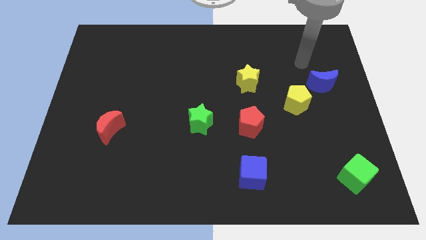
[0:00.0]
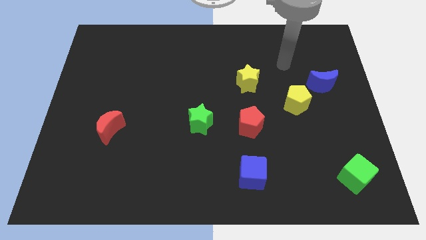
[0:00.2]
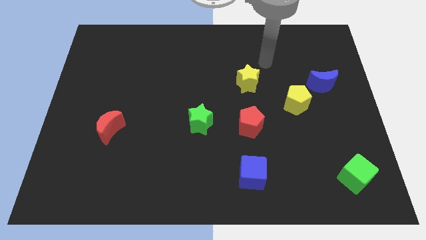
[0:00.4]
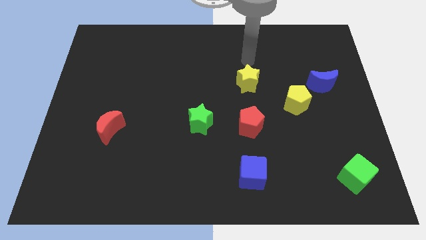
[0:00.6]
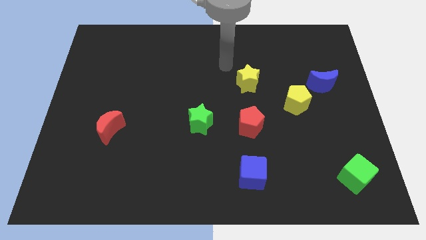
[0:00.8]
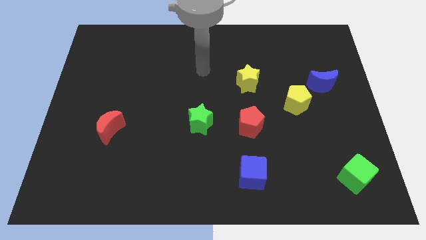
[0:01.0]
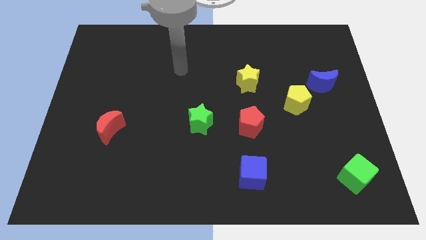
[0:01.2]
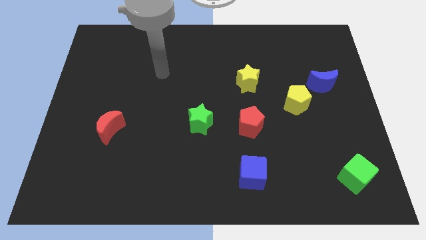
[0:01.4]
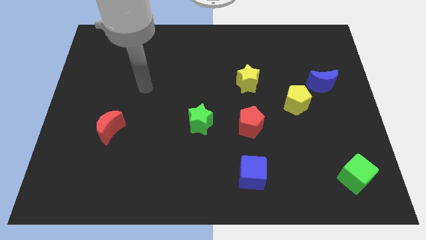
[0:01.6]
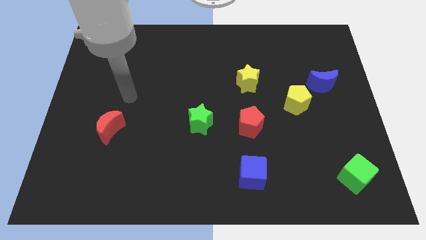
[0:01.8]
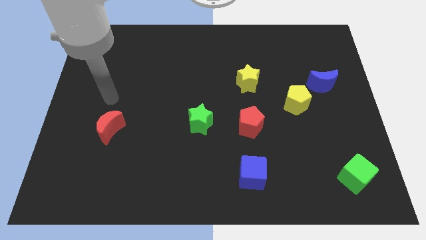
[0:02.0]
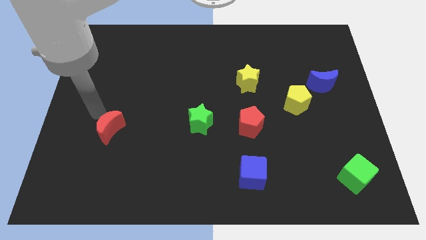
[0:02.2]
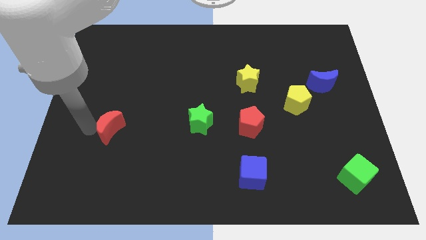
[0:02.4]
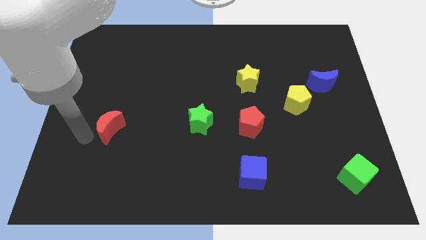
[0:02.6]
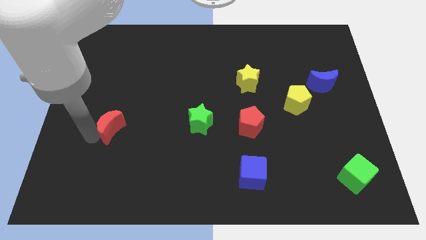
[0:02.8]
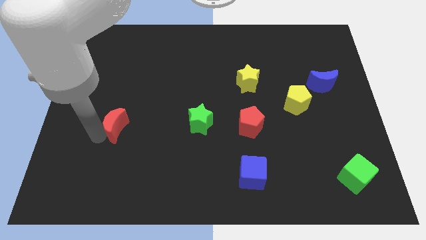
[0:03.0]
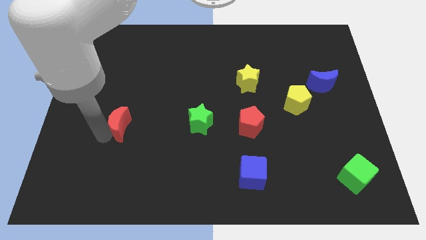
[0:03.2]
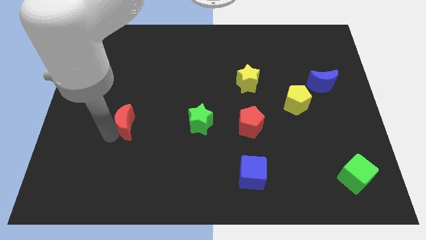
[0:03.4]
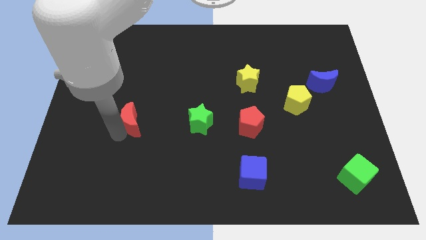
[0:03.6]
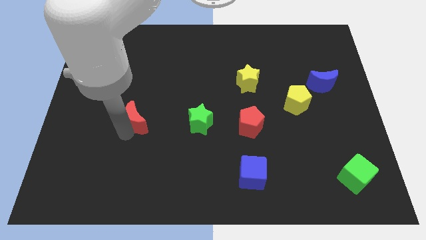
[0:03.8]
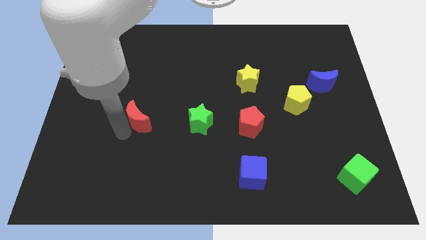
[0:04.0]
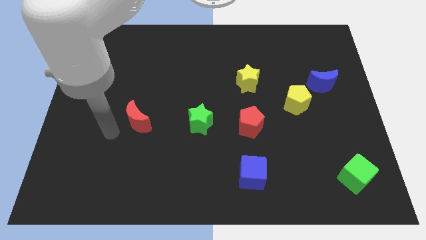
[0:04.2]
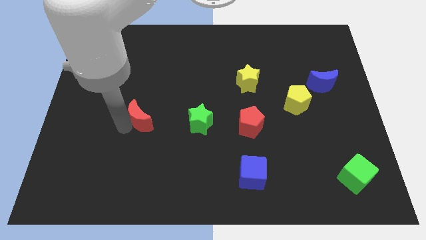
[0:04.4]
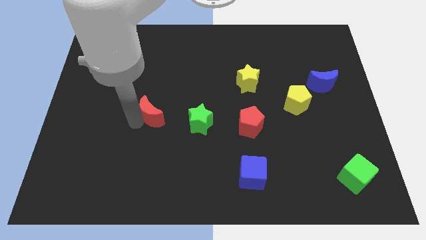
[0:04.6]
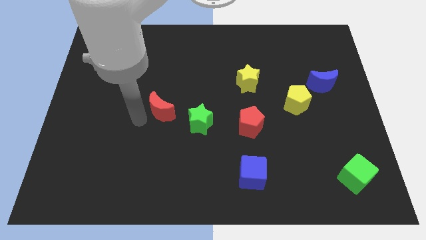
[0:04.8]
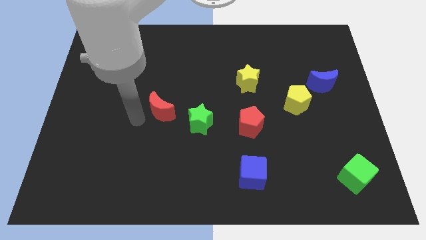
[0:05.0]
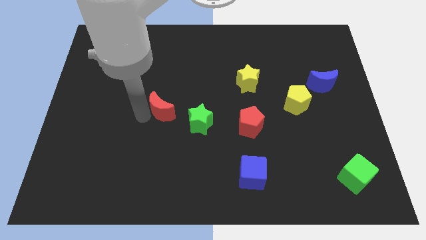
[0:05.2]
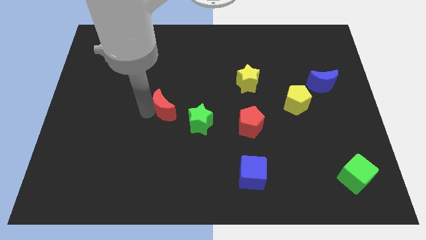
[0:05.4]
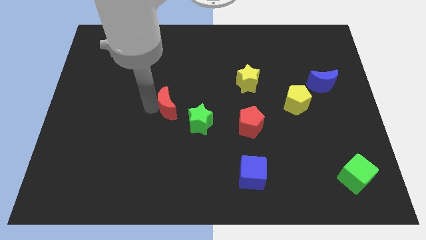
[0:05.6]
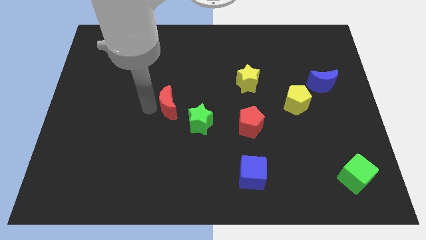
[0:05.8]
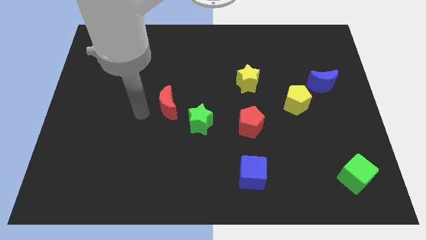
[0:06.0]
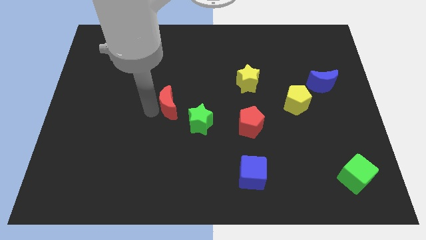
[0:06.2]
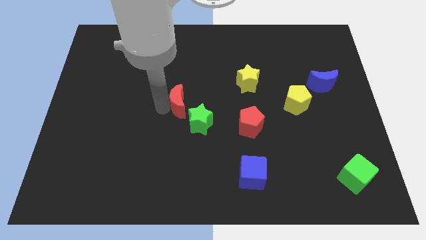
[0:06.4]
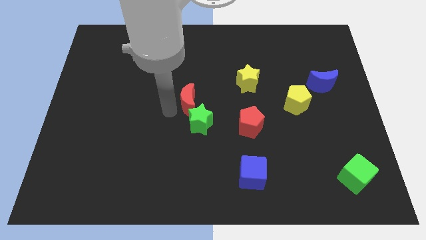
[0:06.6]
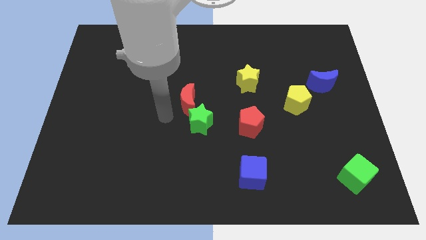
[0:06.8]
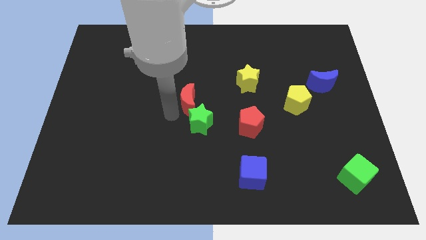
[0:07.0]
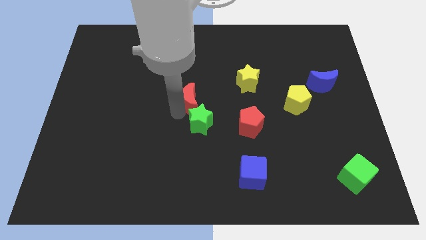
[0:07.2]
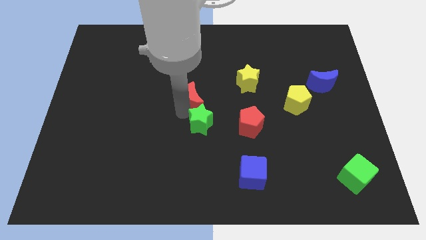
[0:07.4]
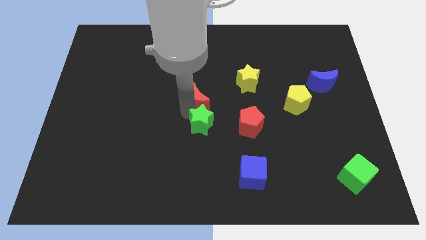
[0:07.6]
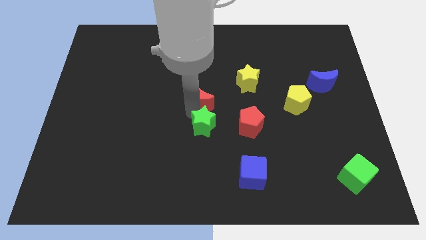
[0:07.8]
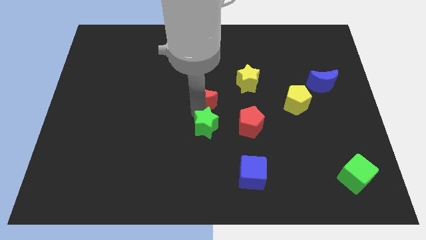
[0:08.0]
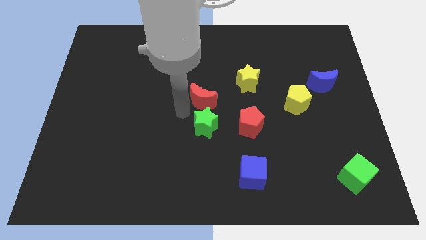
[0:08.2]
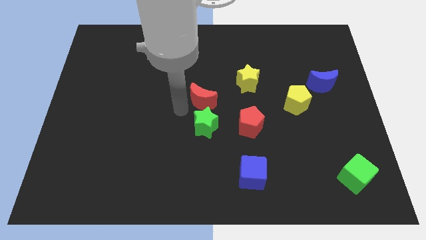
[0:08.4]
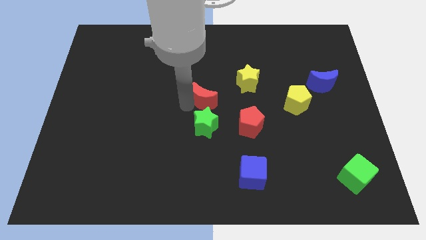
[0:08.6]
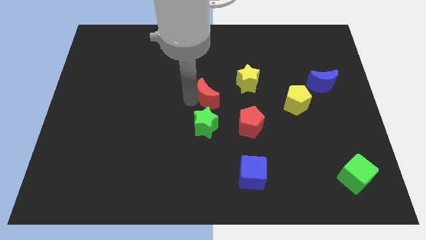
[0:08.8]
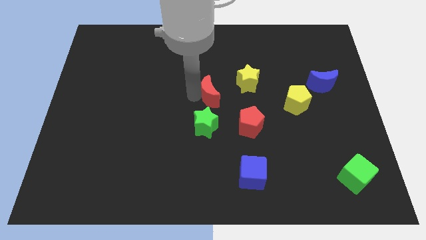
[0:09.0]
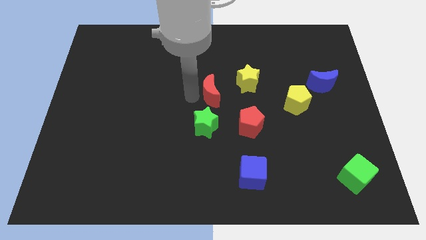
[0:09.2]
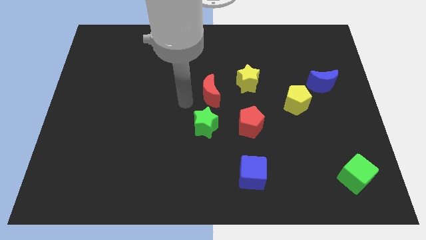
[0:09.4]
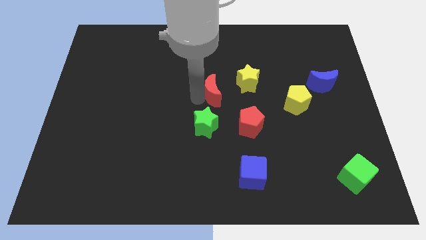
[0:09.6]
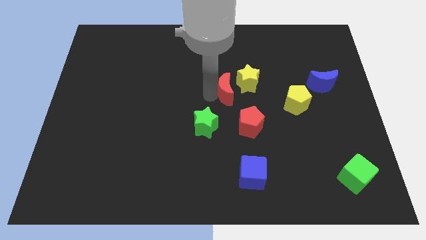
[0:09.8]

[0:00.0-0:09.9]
move the red moon to the yellow star

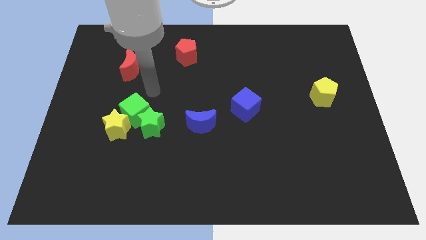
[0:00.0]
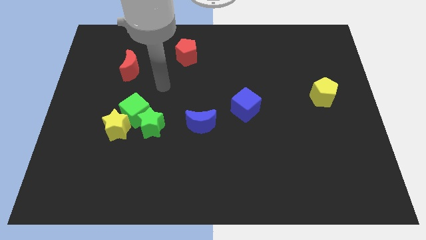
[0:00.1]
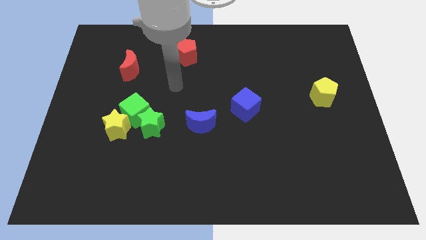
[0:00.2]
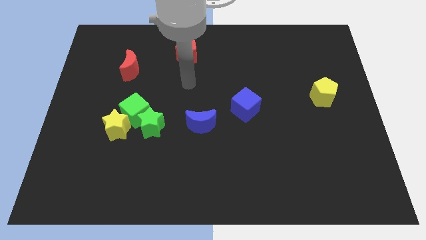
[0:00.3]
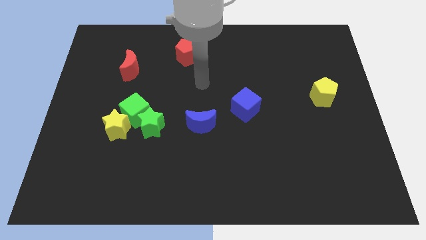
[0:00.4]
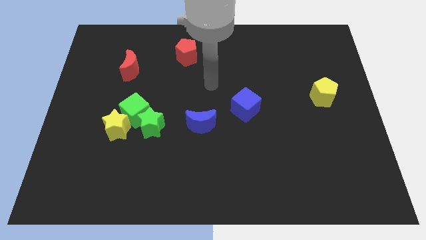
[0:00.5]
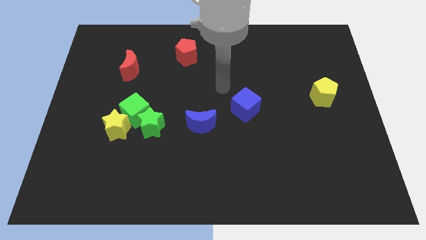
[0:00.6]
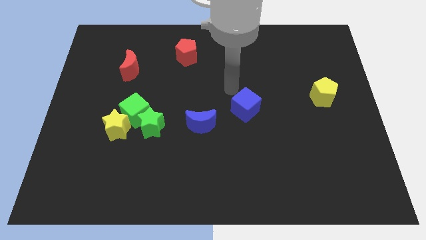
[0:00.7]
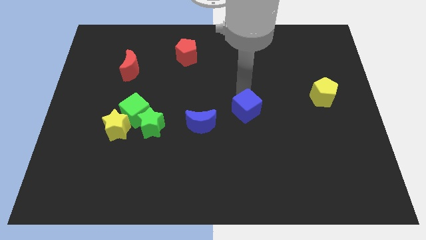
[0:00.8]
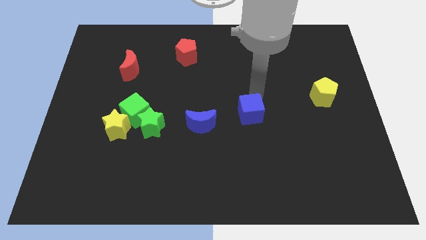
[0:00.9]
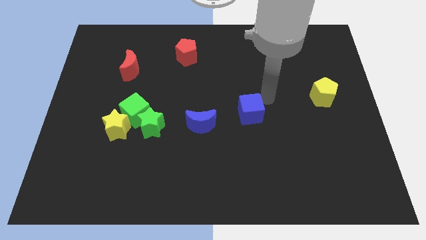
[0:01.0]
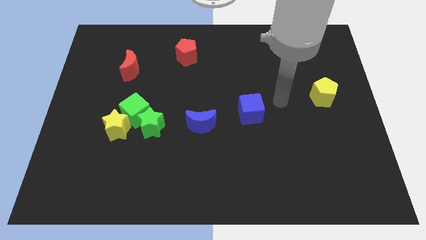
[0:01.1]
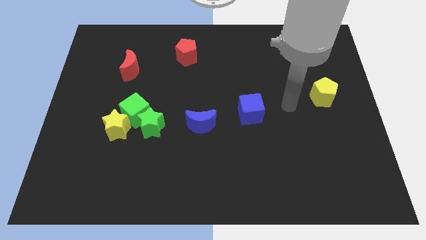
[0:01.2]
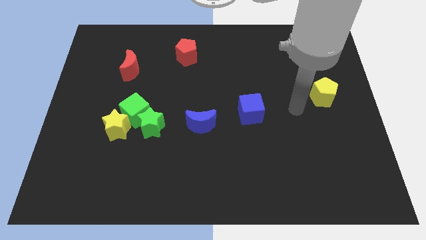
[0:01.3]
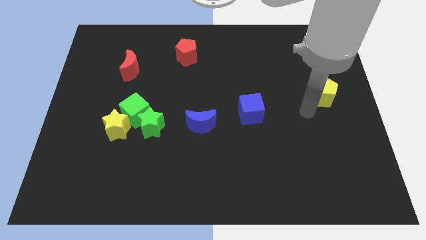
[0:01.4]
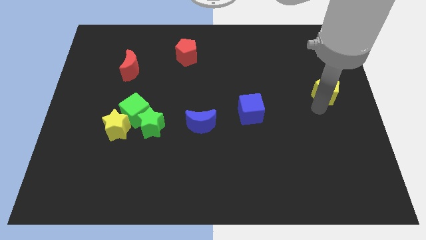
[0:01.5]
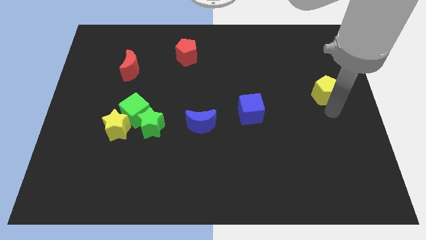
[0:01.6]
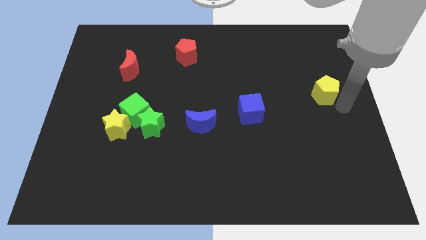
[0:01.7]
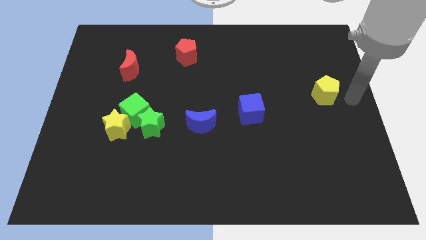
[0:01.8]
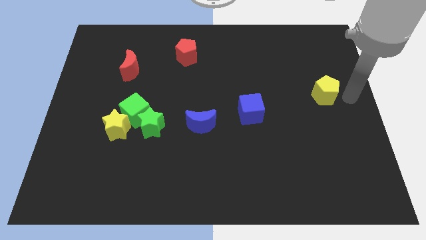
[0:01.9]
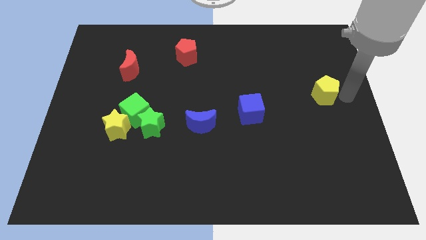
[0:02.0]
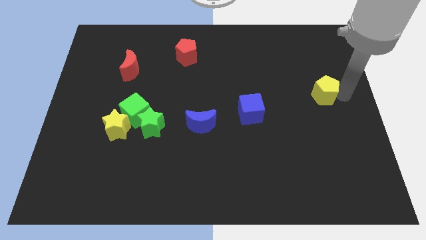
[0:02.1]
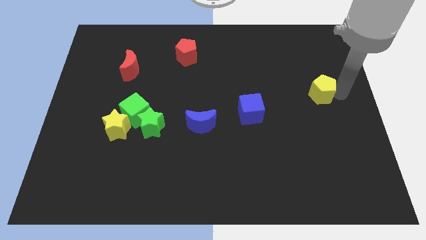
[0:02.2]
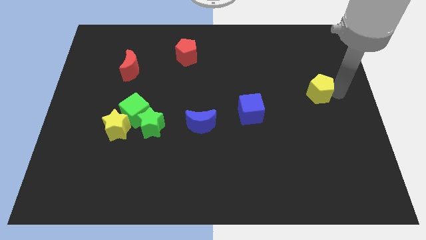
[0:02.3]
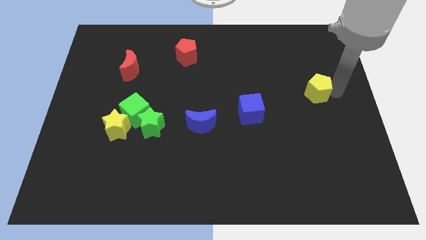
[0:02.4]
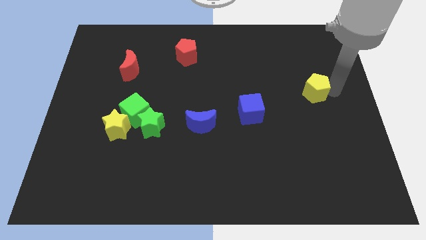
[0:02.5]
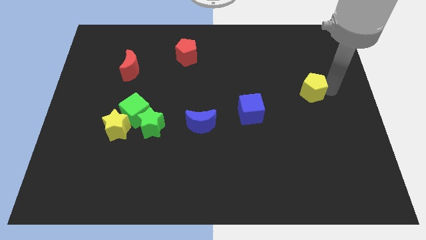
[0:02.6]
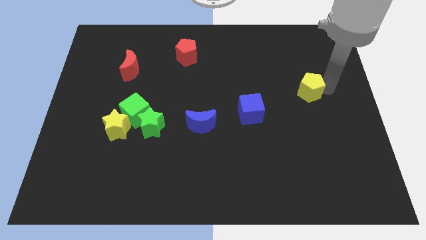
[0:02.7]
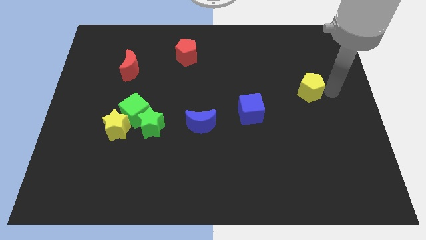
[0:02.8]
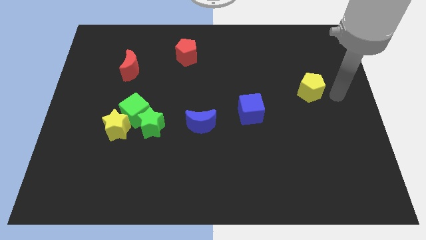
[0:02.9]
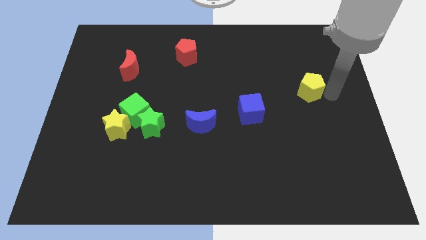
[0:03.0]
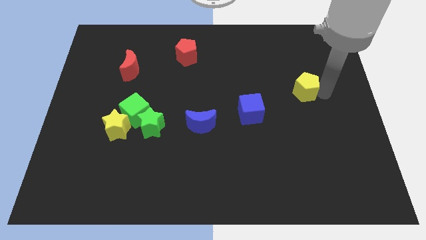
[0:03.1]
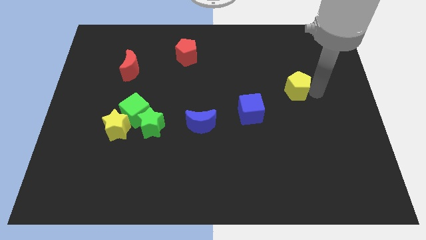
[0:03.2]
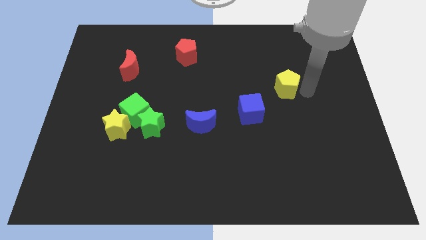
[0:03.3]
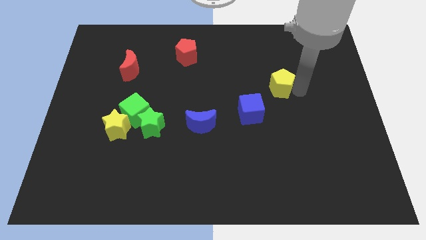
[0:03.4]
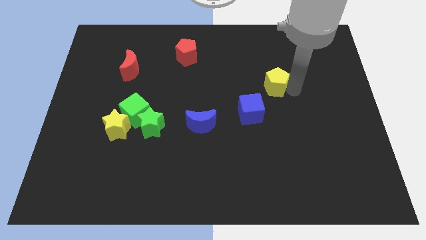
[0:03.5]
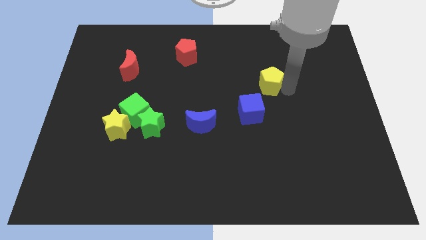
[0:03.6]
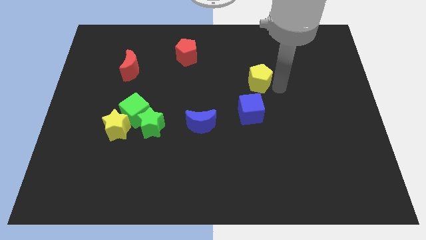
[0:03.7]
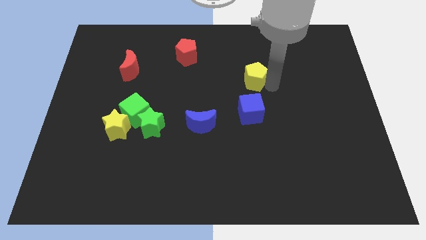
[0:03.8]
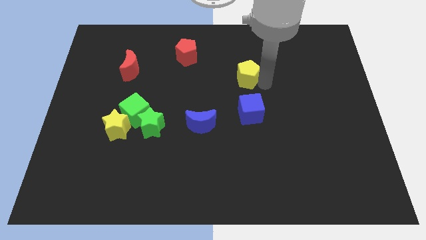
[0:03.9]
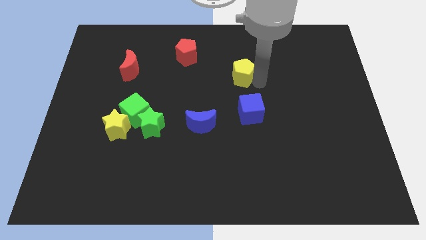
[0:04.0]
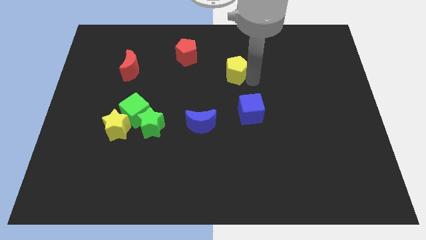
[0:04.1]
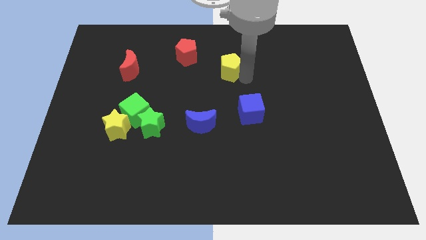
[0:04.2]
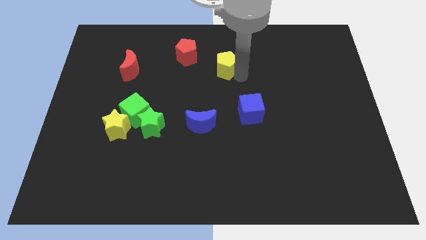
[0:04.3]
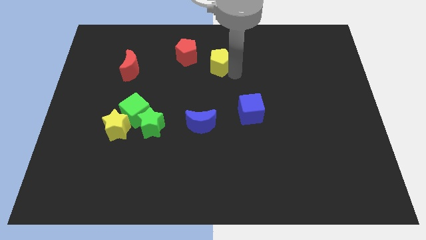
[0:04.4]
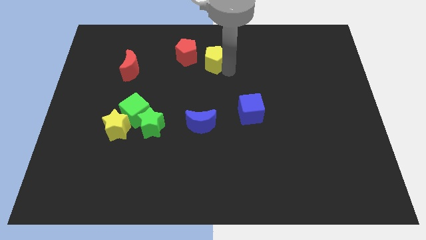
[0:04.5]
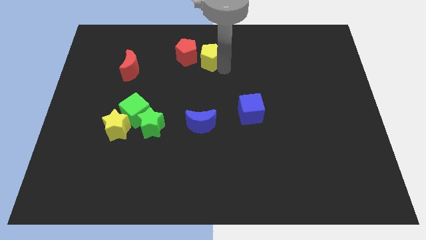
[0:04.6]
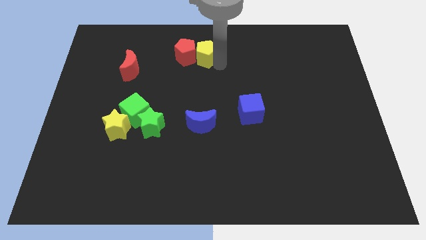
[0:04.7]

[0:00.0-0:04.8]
slide the yellow pentagon close to the red pentagon
